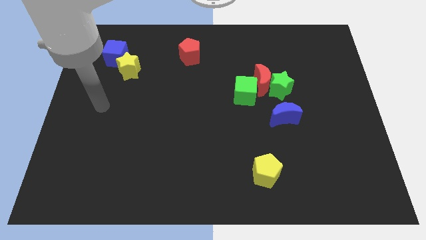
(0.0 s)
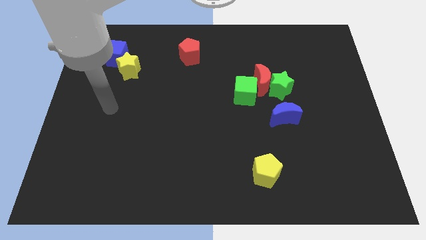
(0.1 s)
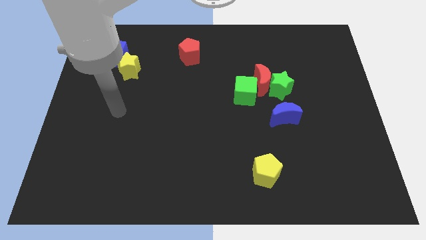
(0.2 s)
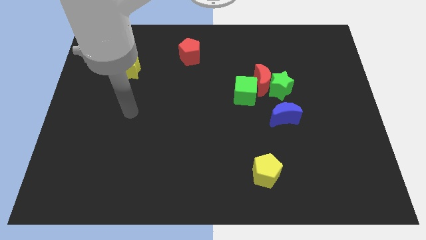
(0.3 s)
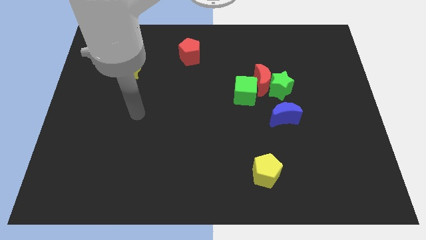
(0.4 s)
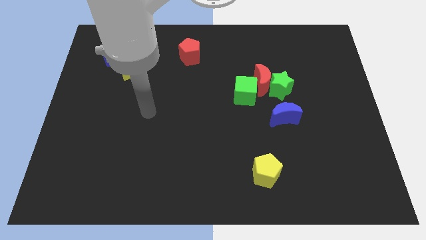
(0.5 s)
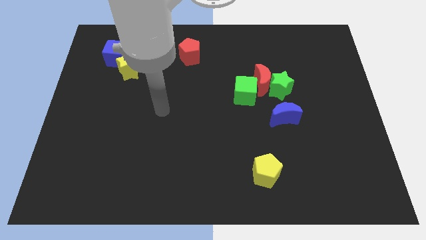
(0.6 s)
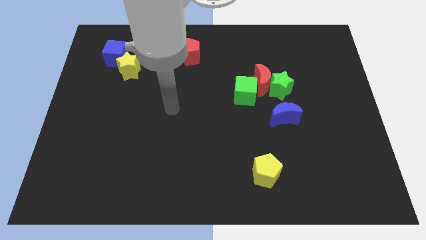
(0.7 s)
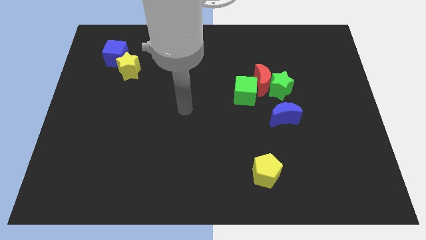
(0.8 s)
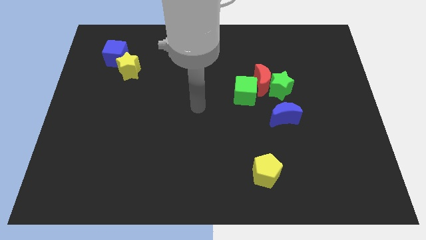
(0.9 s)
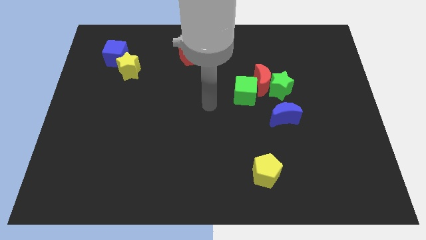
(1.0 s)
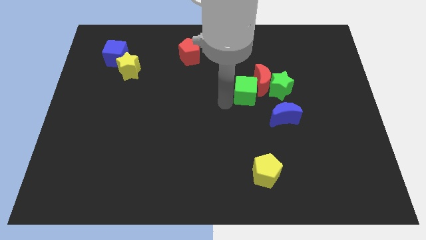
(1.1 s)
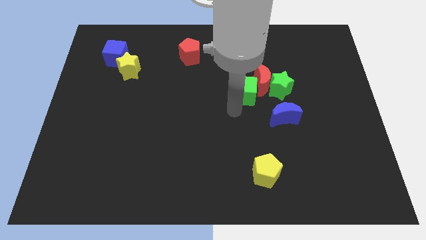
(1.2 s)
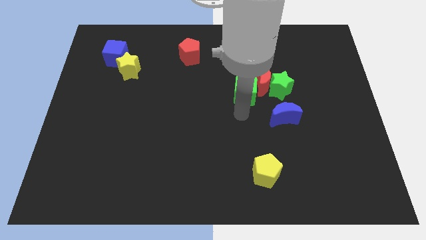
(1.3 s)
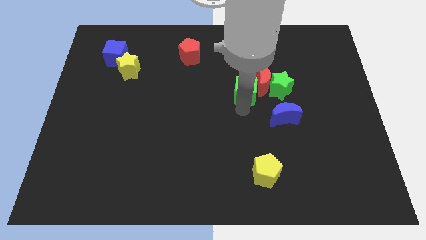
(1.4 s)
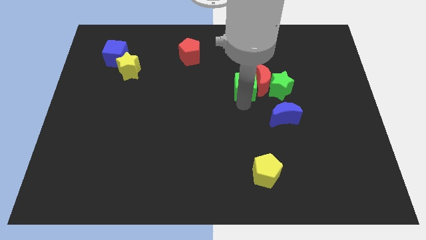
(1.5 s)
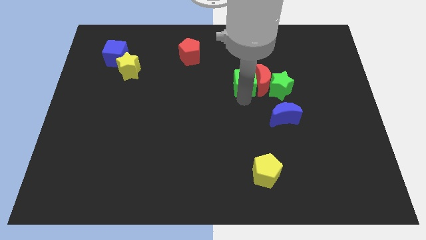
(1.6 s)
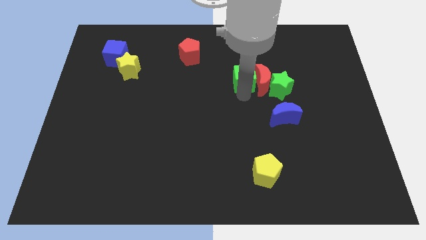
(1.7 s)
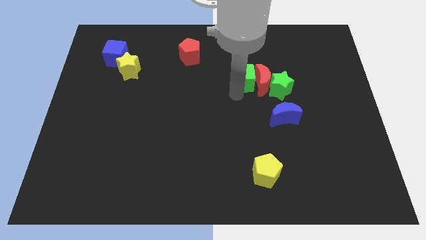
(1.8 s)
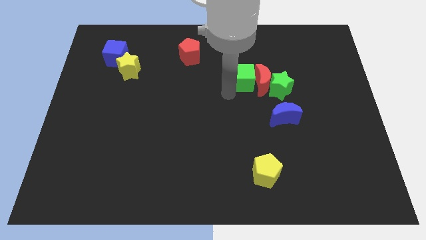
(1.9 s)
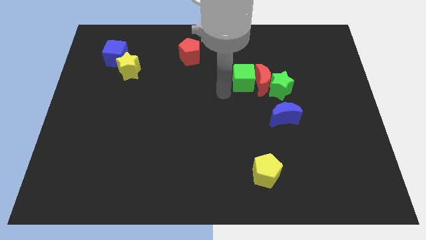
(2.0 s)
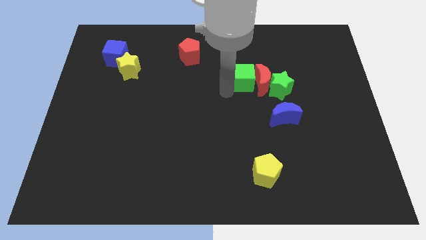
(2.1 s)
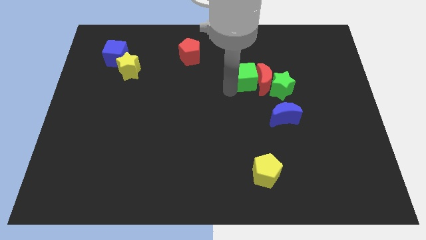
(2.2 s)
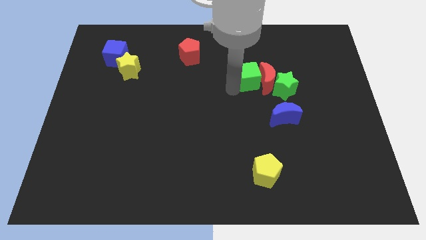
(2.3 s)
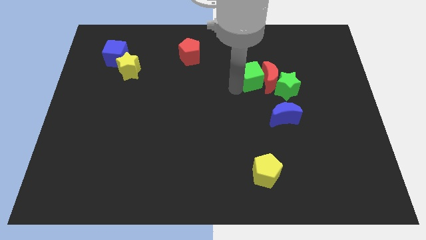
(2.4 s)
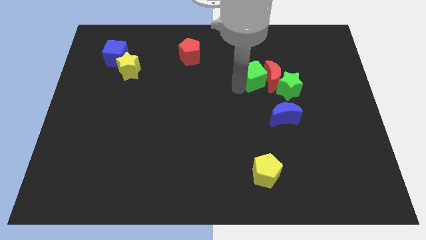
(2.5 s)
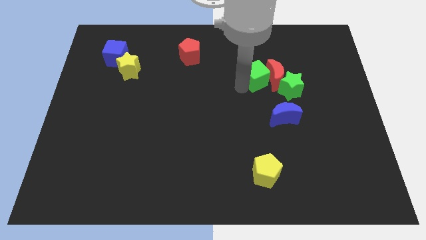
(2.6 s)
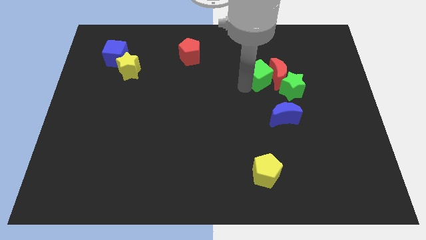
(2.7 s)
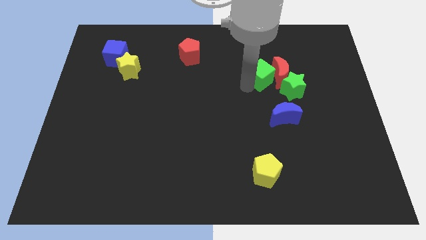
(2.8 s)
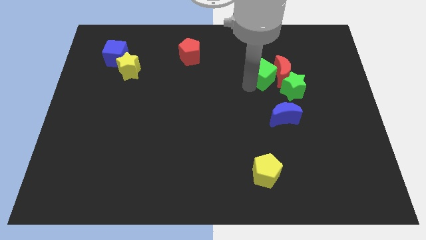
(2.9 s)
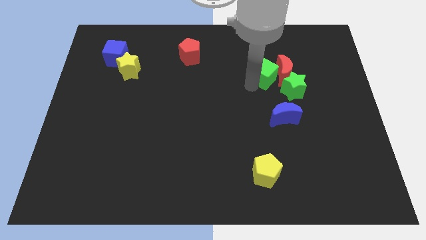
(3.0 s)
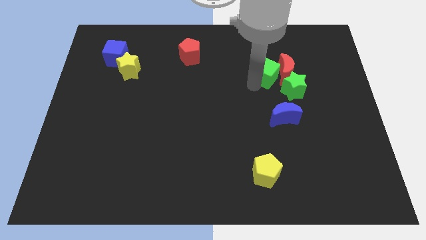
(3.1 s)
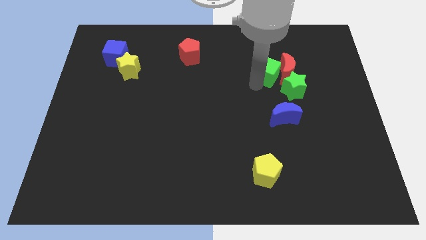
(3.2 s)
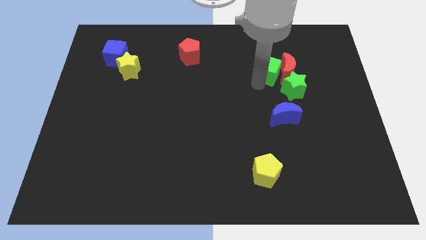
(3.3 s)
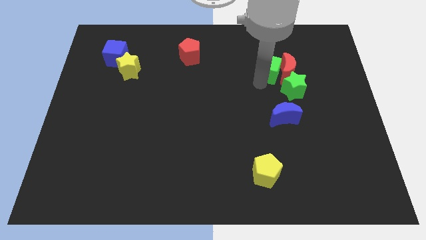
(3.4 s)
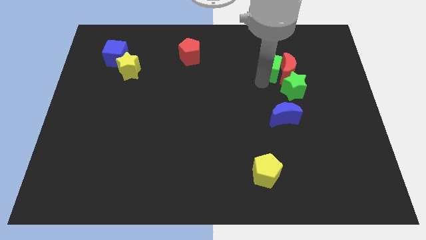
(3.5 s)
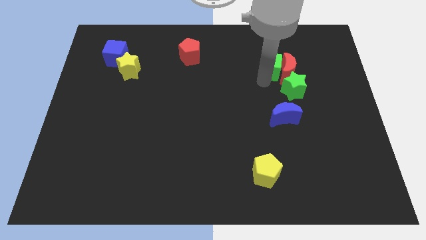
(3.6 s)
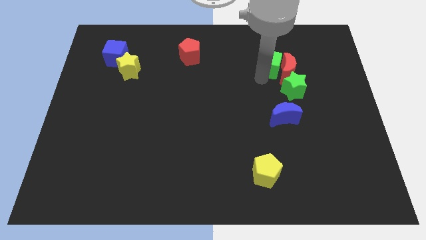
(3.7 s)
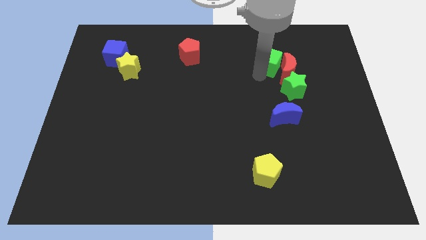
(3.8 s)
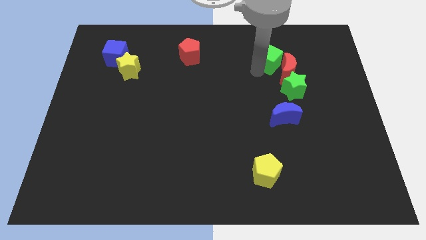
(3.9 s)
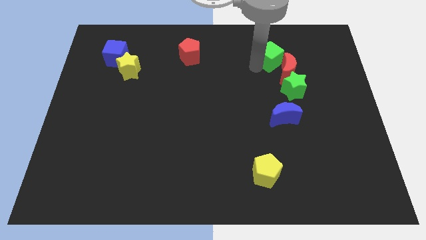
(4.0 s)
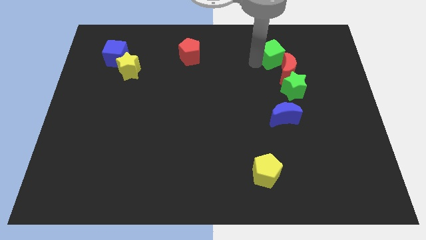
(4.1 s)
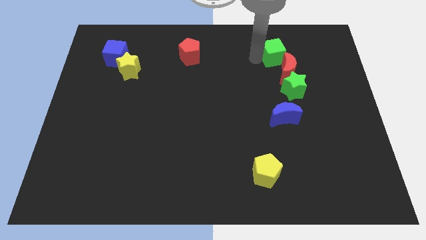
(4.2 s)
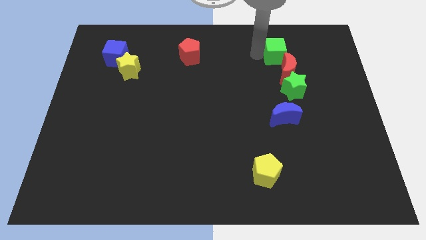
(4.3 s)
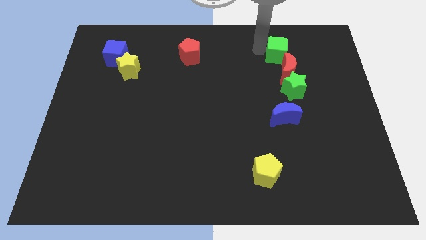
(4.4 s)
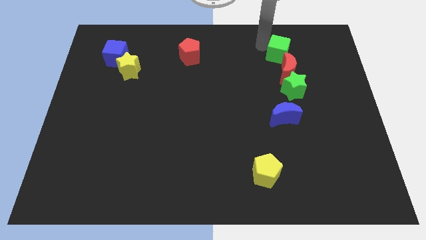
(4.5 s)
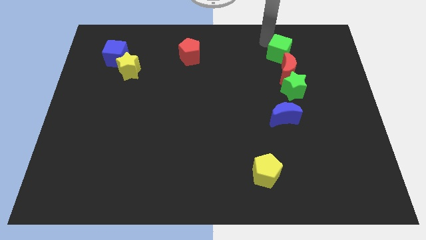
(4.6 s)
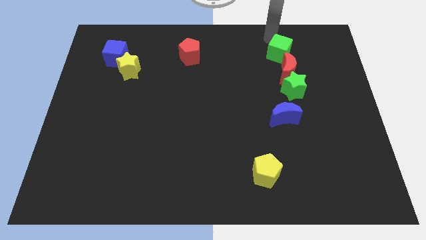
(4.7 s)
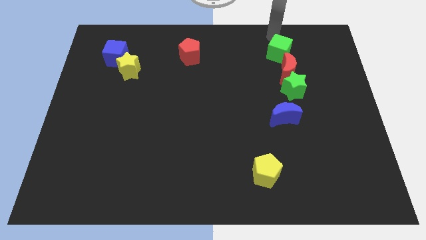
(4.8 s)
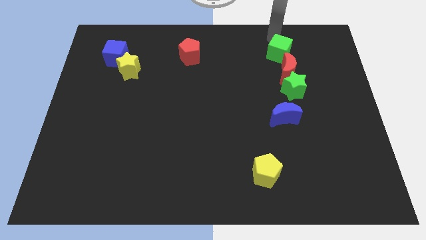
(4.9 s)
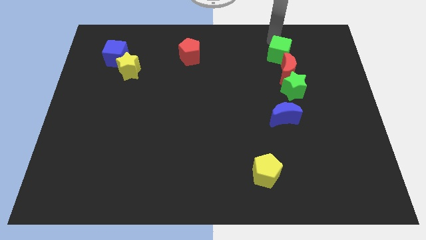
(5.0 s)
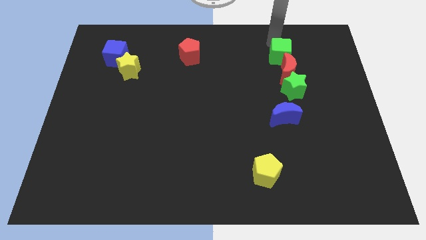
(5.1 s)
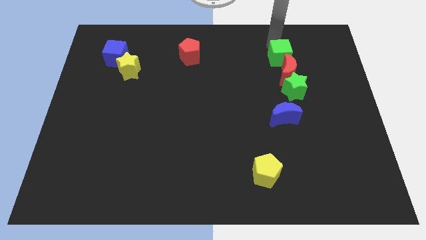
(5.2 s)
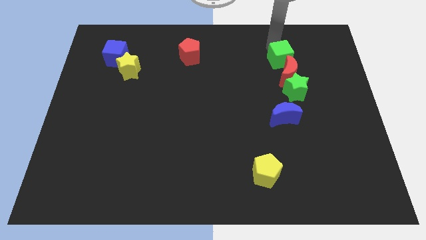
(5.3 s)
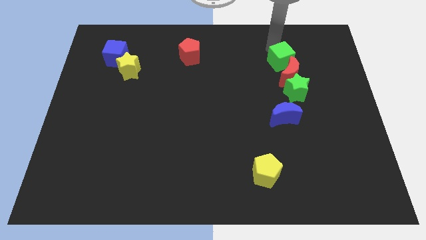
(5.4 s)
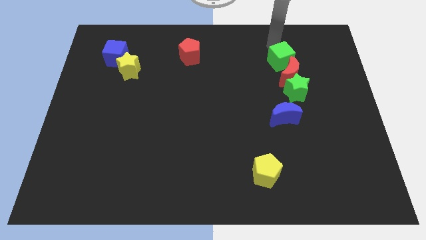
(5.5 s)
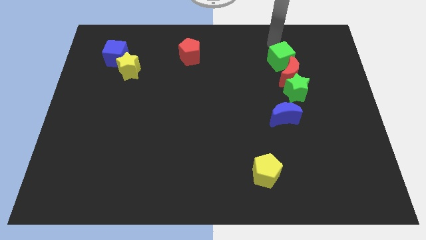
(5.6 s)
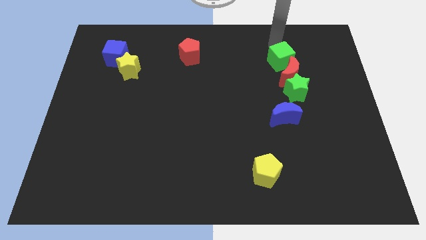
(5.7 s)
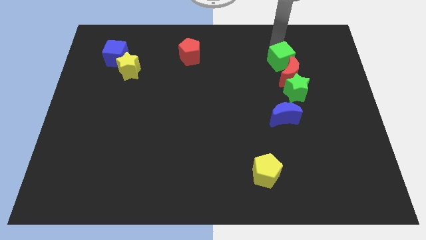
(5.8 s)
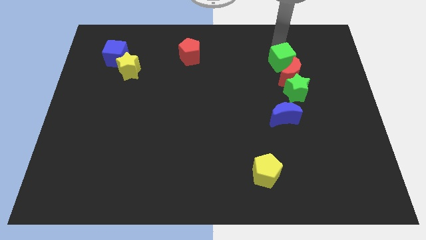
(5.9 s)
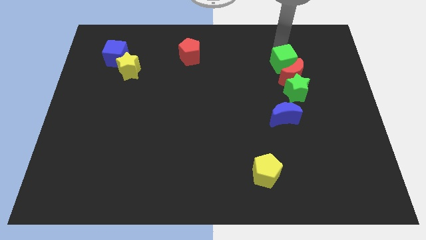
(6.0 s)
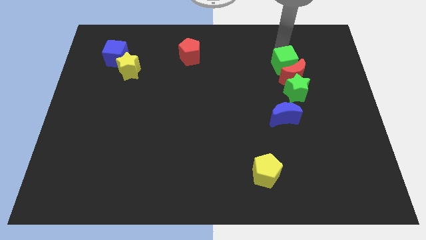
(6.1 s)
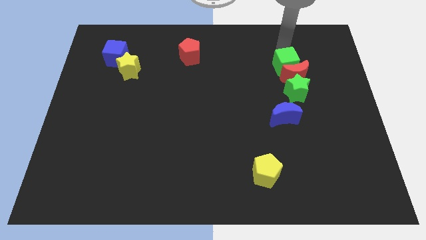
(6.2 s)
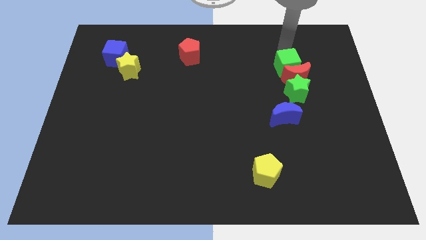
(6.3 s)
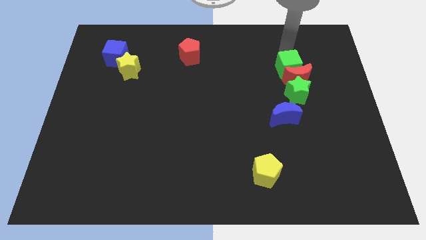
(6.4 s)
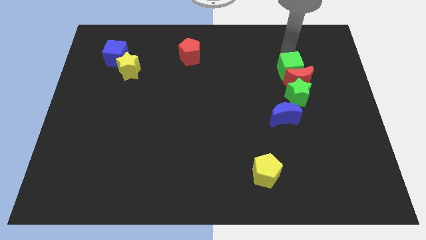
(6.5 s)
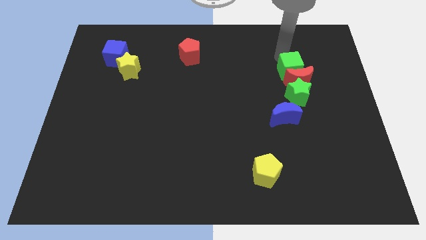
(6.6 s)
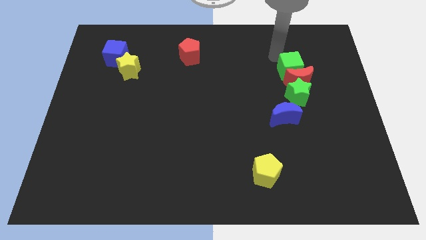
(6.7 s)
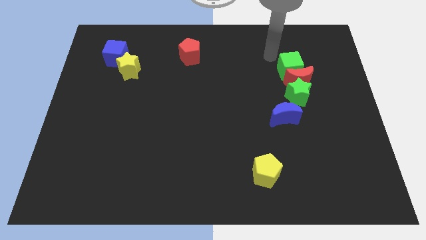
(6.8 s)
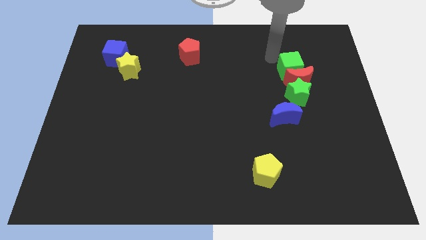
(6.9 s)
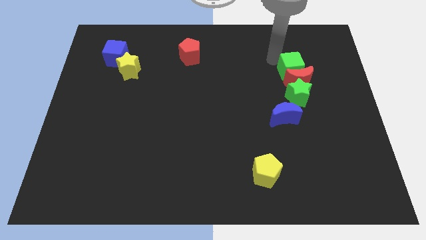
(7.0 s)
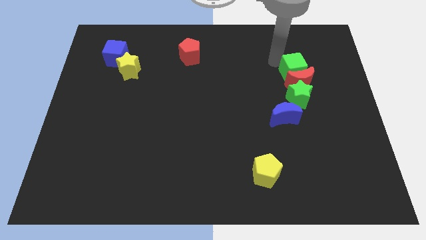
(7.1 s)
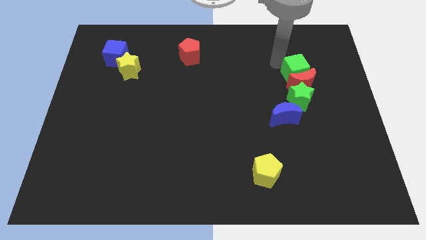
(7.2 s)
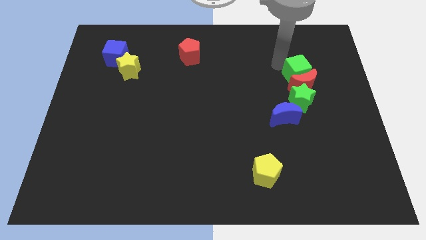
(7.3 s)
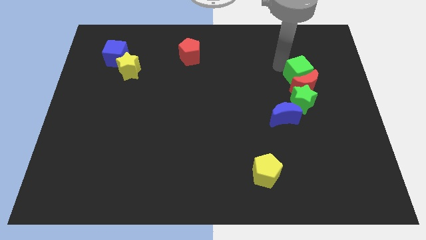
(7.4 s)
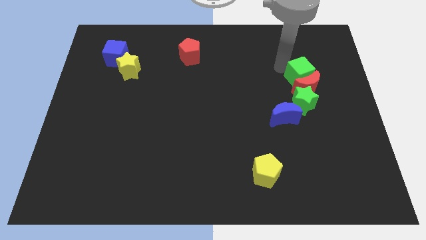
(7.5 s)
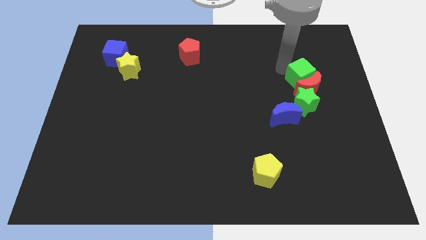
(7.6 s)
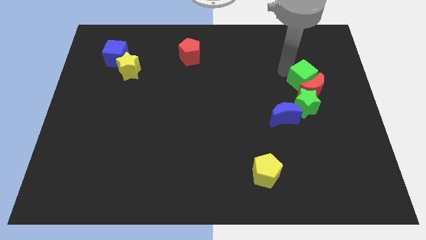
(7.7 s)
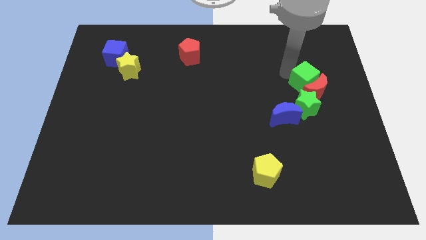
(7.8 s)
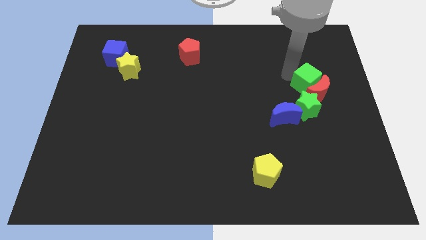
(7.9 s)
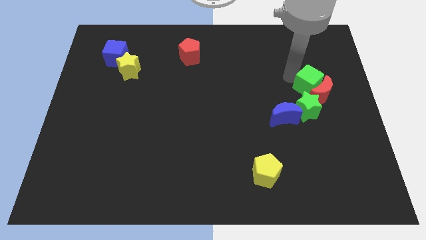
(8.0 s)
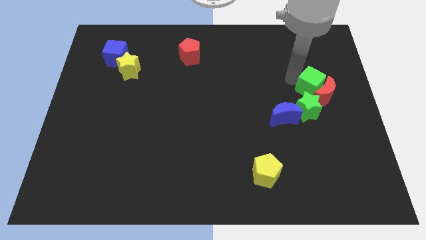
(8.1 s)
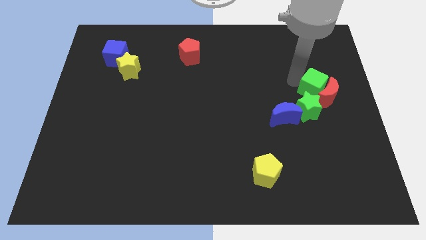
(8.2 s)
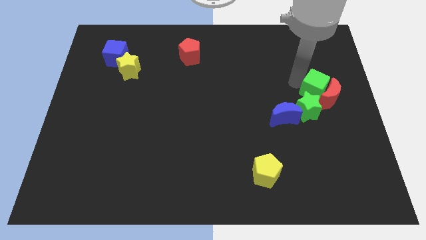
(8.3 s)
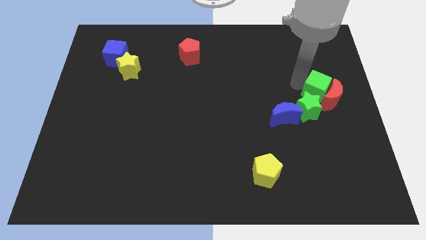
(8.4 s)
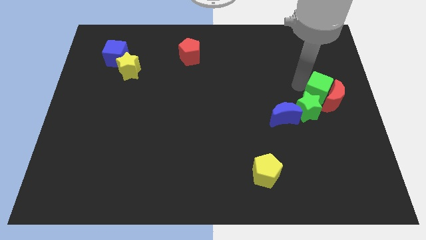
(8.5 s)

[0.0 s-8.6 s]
put the green cube to the right side of the board
